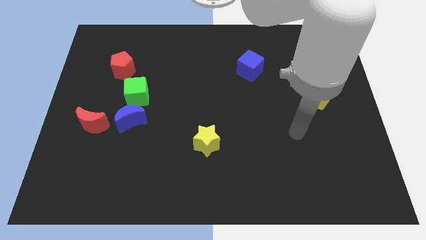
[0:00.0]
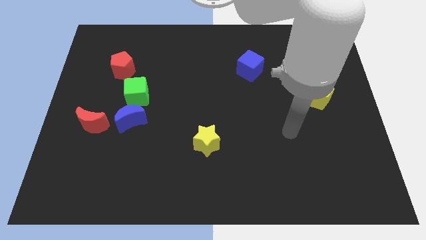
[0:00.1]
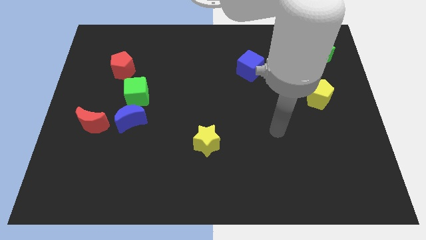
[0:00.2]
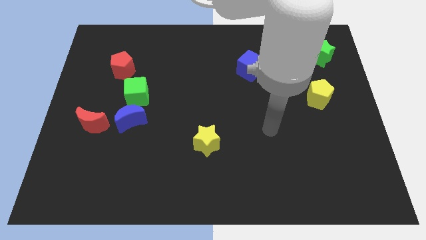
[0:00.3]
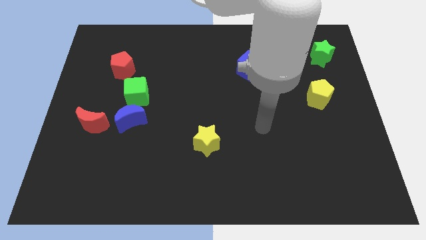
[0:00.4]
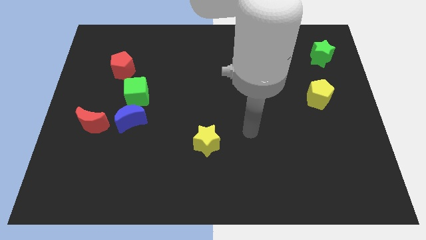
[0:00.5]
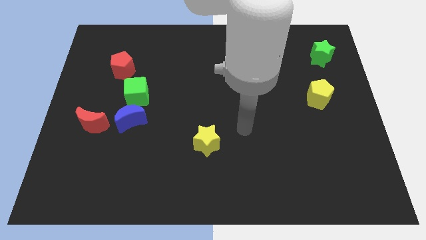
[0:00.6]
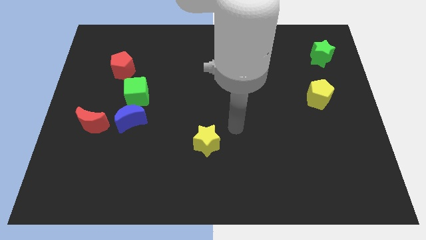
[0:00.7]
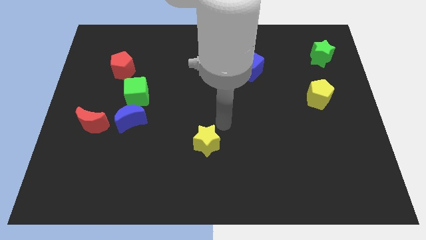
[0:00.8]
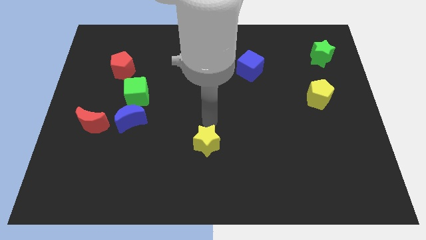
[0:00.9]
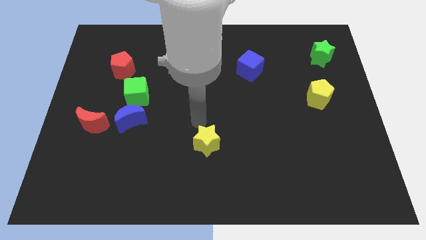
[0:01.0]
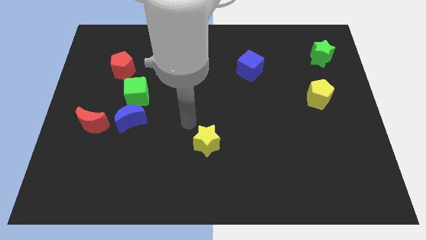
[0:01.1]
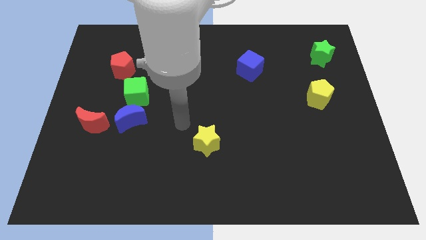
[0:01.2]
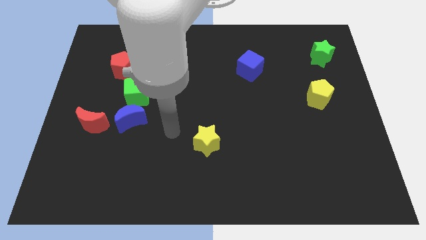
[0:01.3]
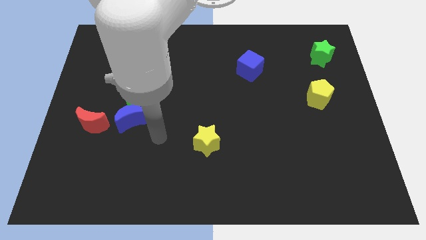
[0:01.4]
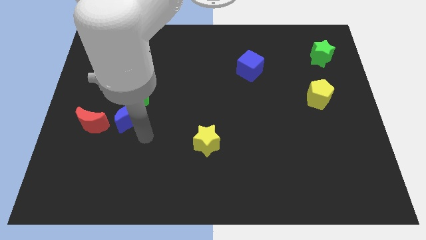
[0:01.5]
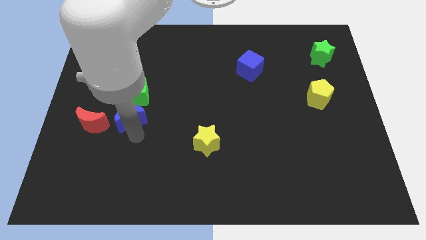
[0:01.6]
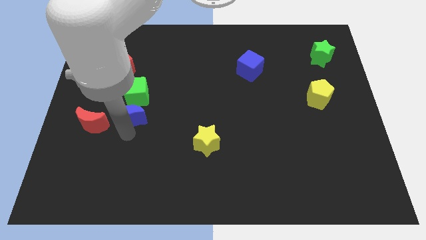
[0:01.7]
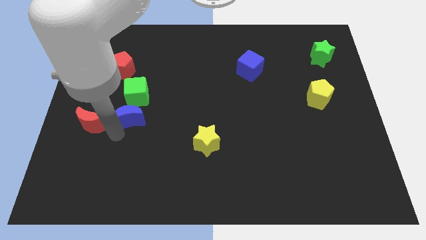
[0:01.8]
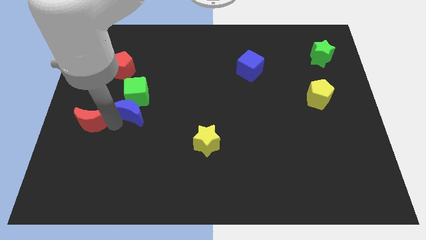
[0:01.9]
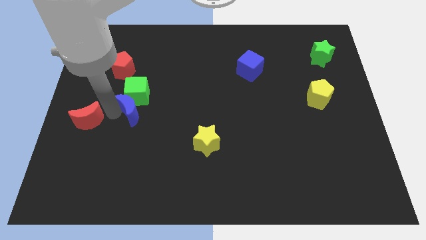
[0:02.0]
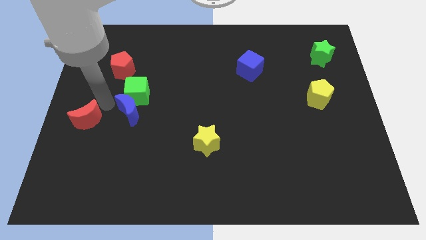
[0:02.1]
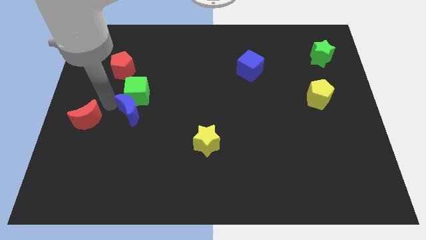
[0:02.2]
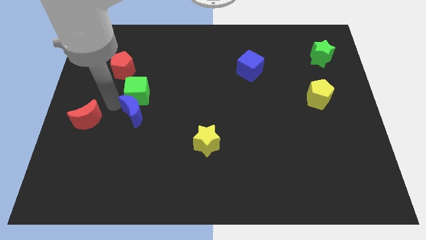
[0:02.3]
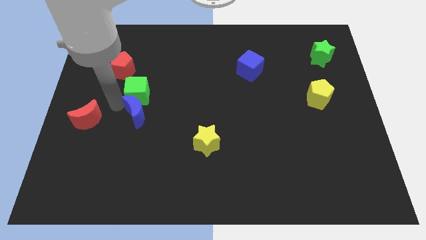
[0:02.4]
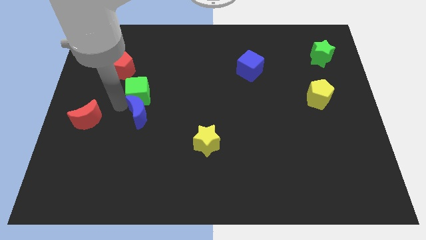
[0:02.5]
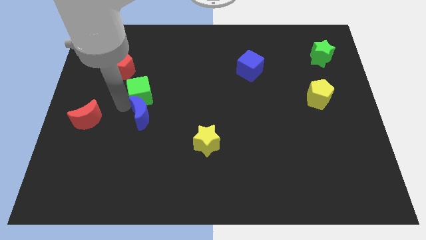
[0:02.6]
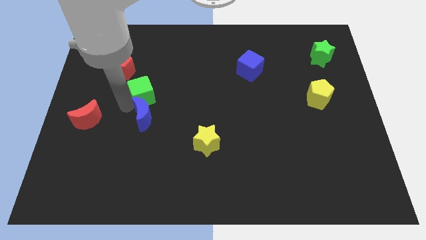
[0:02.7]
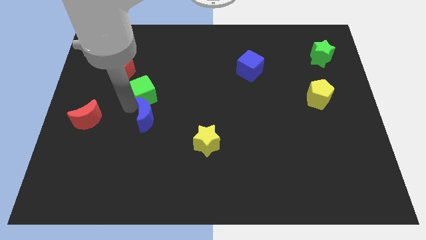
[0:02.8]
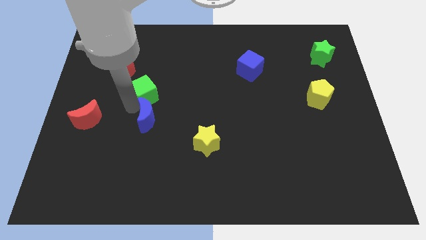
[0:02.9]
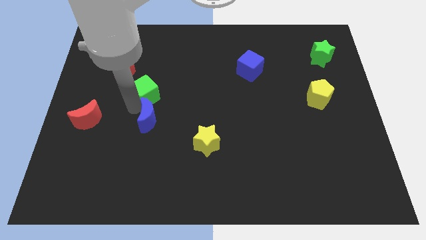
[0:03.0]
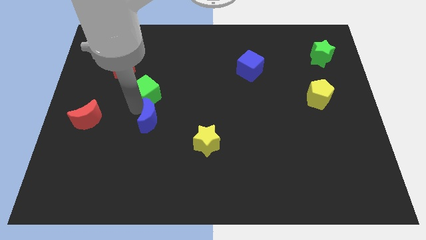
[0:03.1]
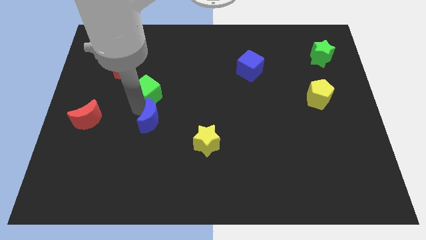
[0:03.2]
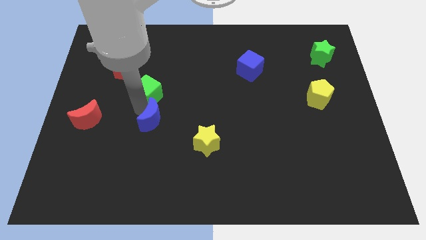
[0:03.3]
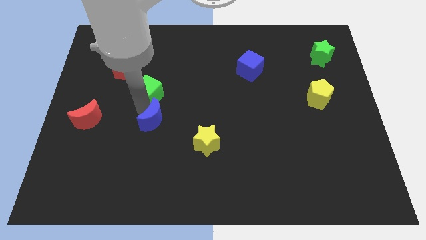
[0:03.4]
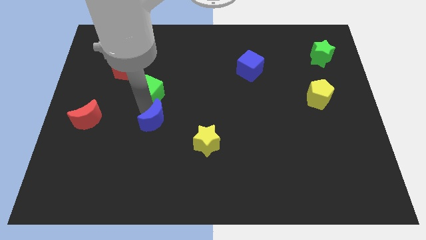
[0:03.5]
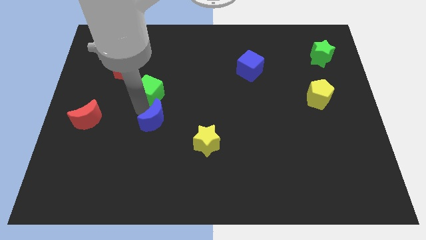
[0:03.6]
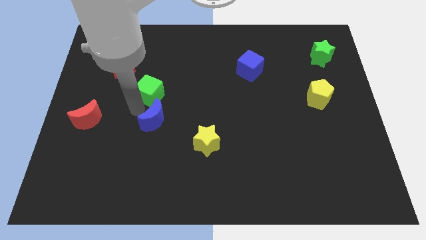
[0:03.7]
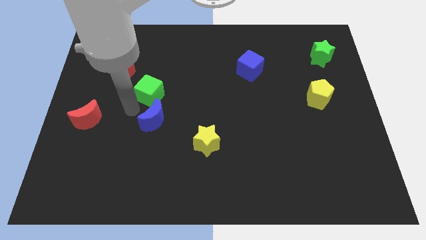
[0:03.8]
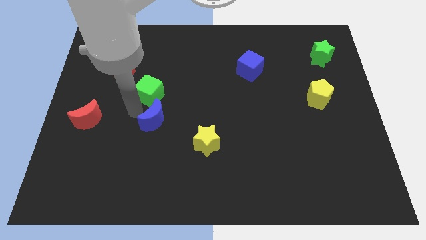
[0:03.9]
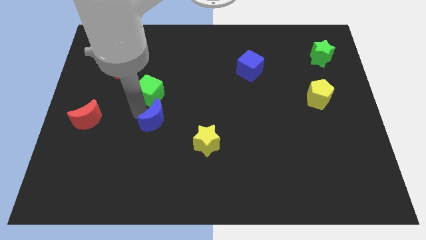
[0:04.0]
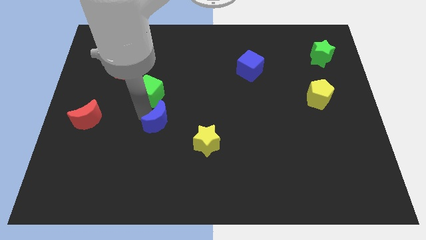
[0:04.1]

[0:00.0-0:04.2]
move the blue moon away from the green cube and red moon

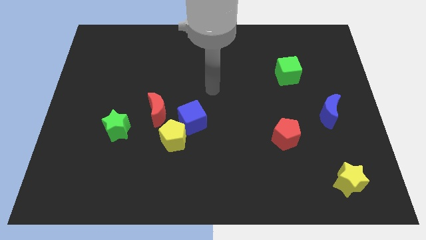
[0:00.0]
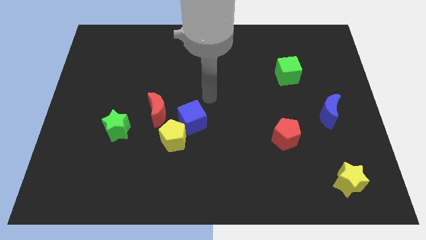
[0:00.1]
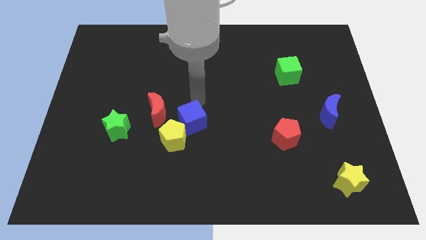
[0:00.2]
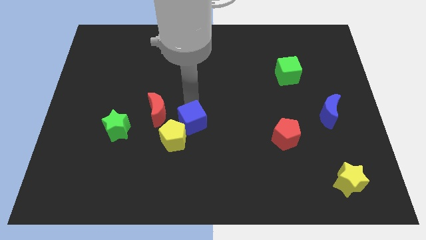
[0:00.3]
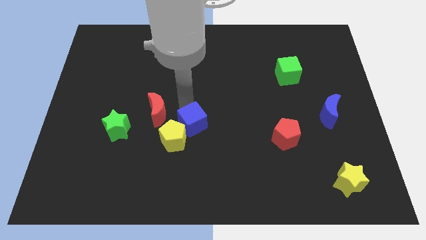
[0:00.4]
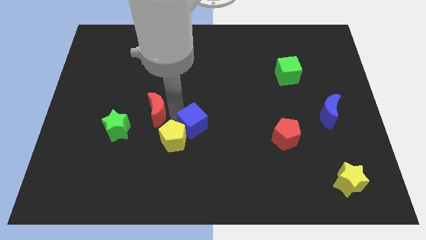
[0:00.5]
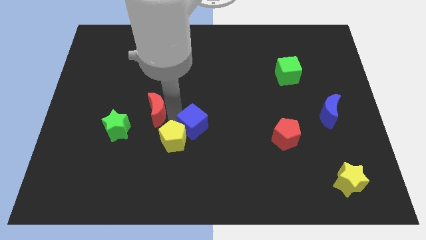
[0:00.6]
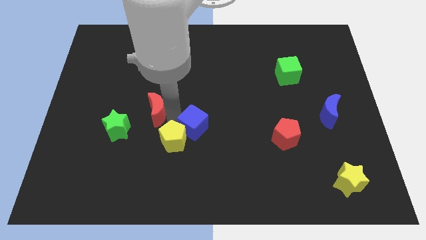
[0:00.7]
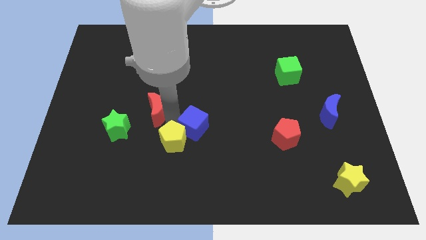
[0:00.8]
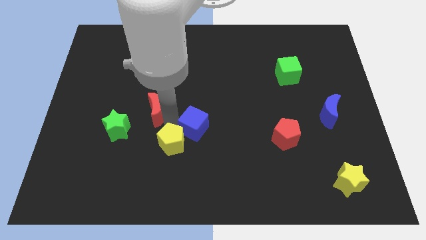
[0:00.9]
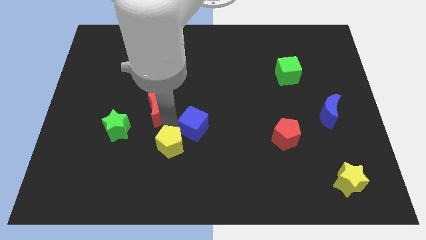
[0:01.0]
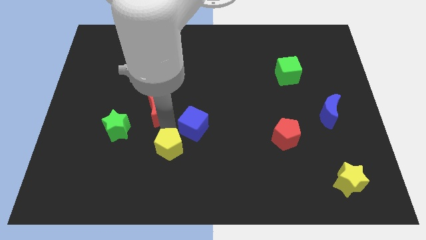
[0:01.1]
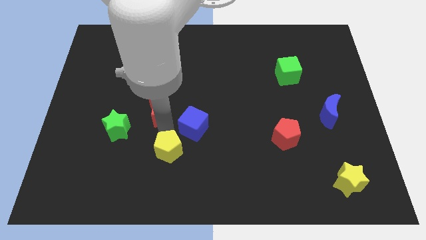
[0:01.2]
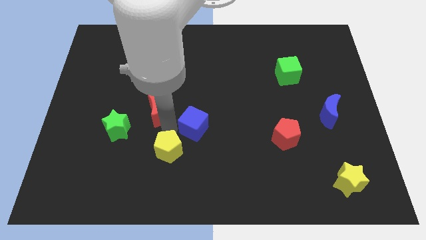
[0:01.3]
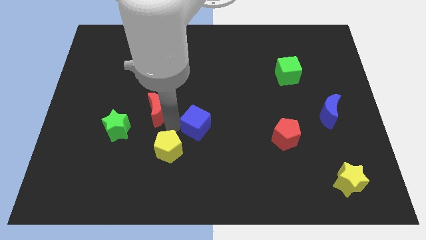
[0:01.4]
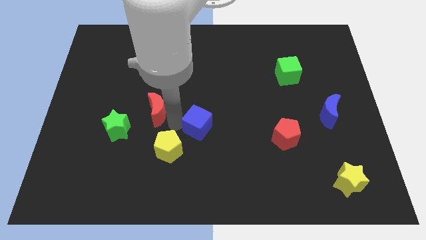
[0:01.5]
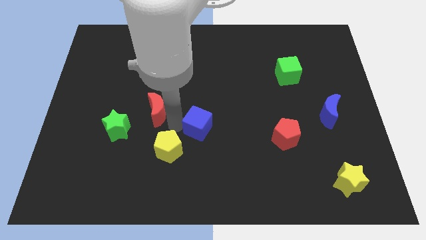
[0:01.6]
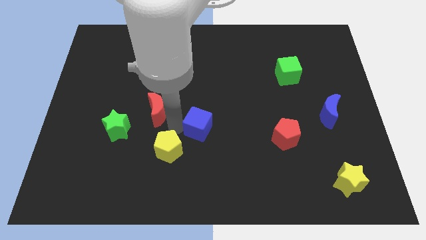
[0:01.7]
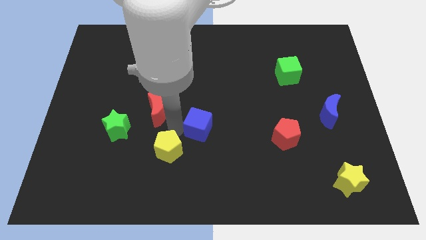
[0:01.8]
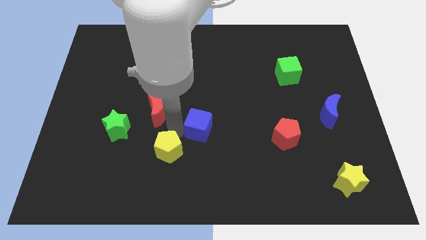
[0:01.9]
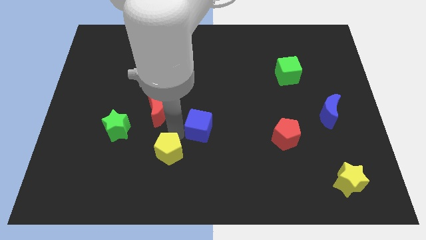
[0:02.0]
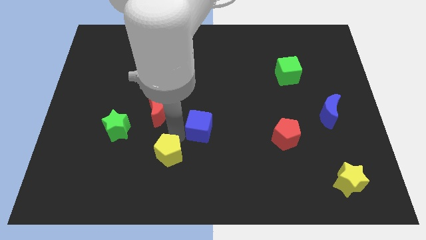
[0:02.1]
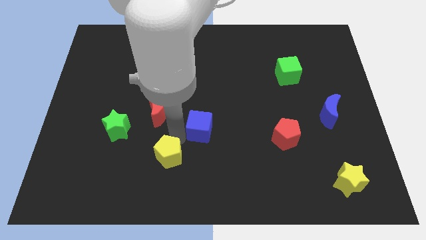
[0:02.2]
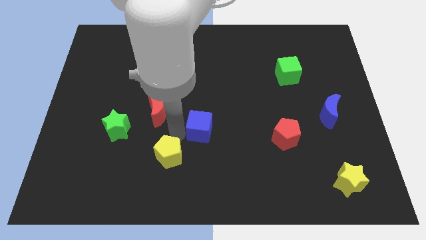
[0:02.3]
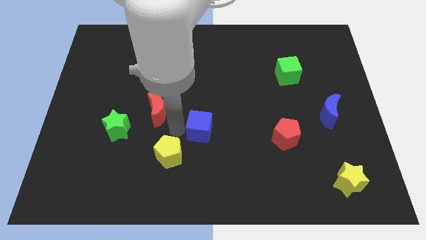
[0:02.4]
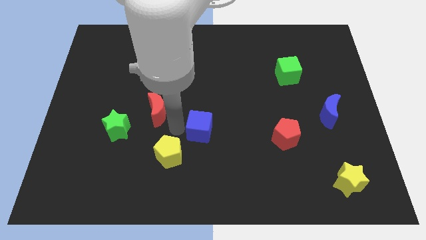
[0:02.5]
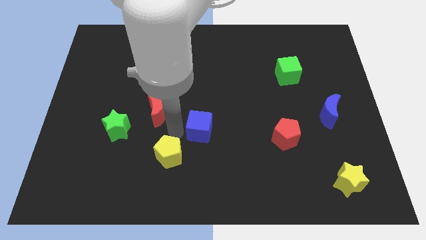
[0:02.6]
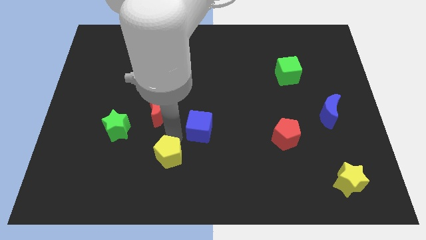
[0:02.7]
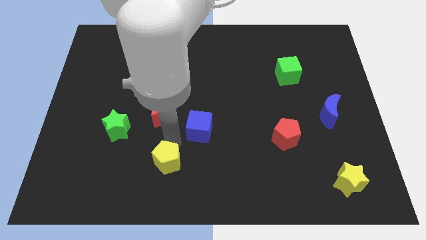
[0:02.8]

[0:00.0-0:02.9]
move the yellow pentagon away from the blue cube and red moon

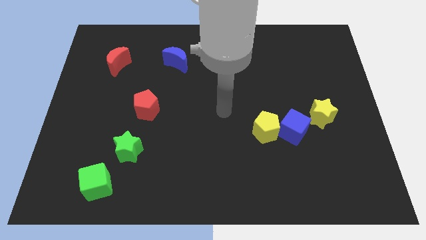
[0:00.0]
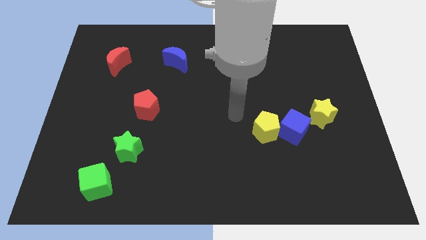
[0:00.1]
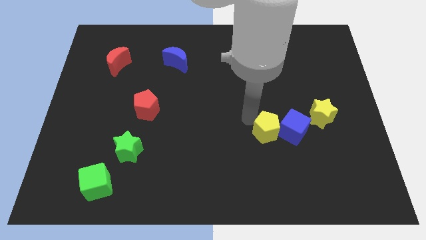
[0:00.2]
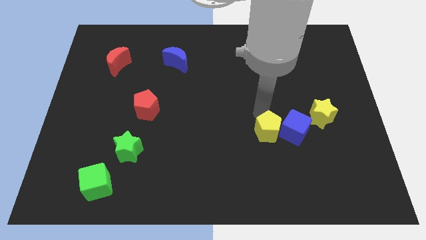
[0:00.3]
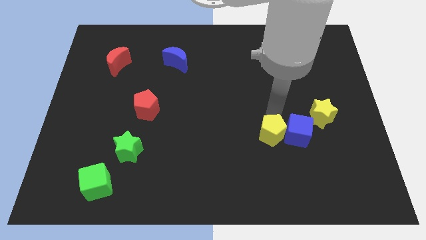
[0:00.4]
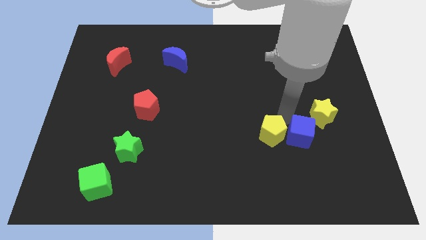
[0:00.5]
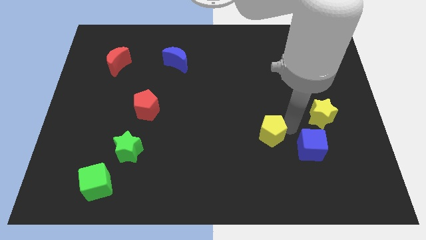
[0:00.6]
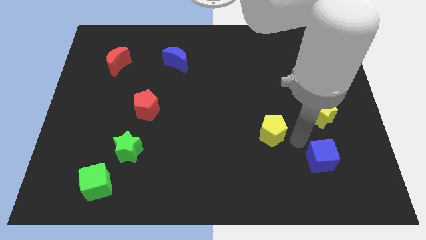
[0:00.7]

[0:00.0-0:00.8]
pull the yellow pentagon apart from the blue cube

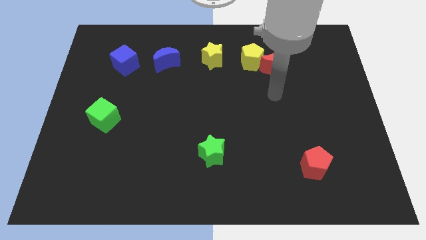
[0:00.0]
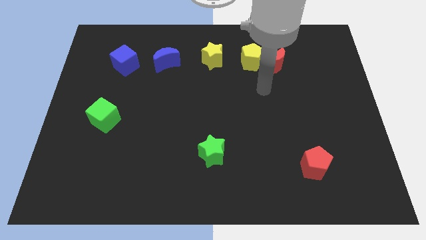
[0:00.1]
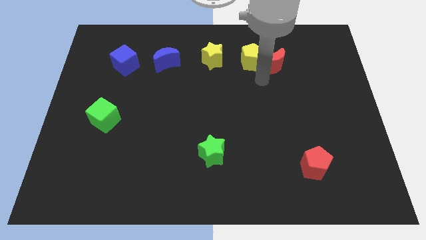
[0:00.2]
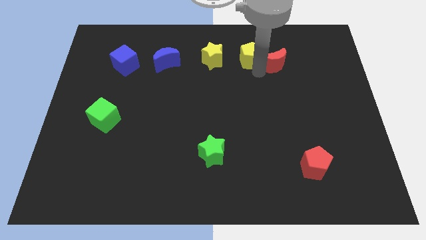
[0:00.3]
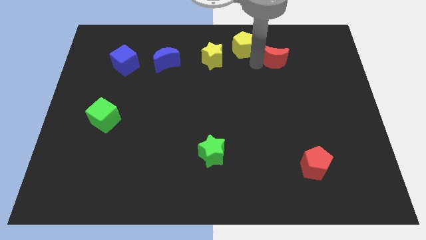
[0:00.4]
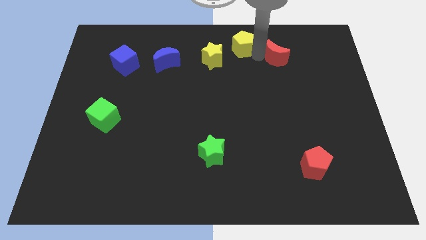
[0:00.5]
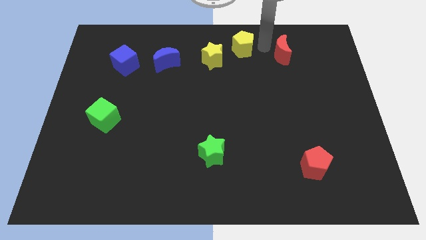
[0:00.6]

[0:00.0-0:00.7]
pull the red moon apart from the yellow pentagon

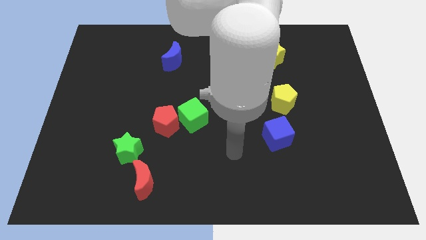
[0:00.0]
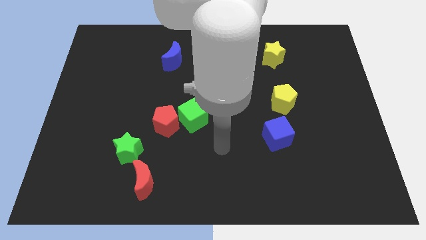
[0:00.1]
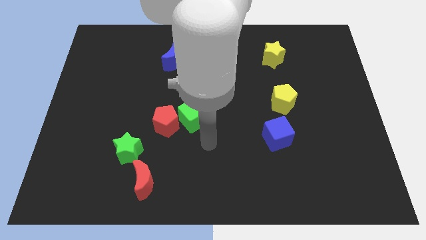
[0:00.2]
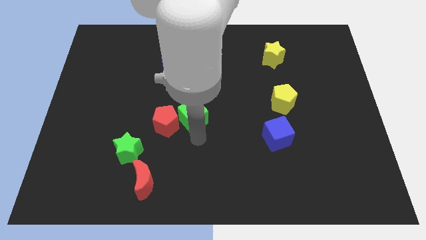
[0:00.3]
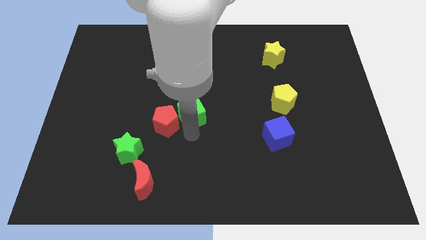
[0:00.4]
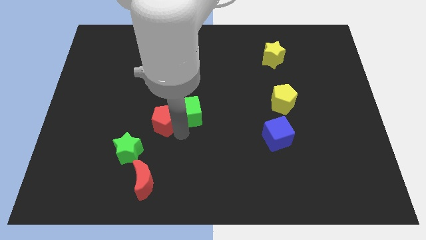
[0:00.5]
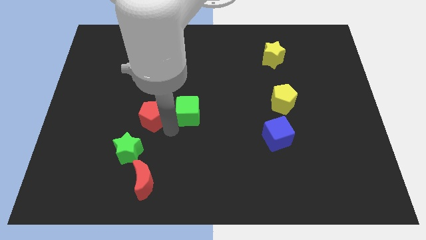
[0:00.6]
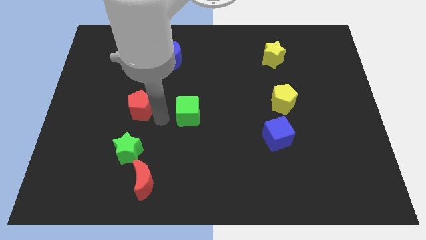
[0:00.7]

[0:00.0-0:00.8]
pull the green cube apart from the red pentagon
